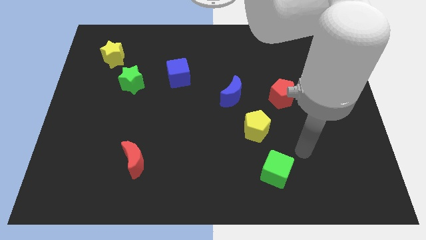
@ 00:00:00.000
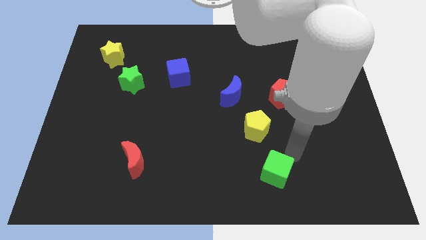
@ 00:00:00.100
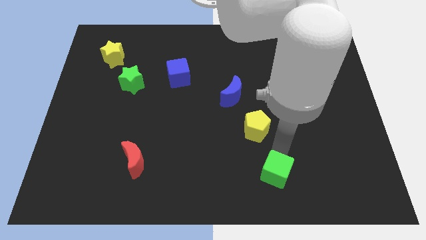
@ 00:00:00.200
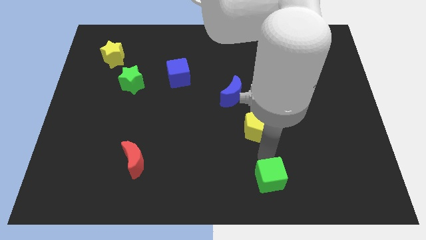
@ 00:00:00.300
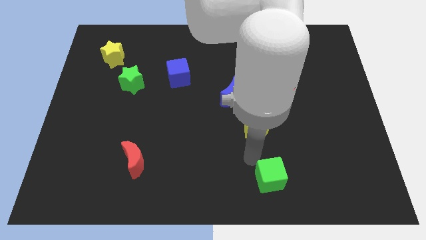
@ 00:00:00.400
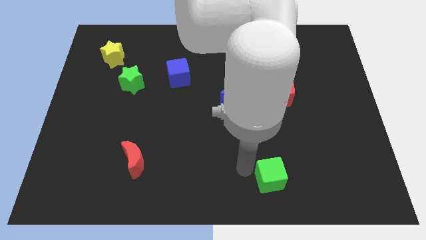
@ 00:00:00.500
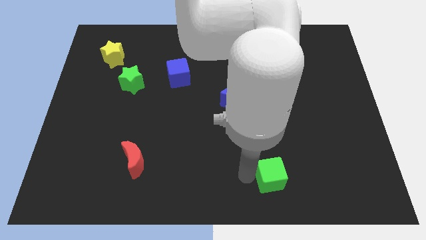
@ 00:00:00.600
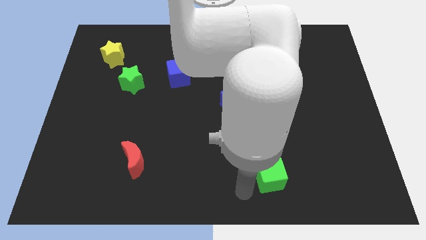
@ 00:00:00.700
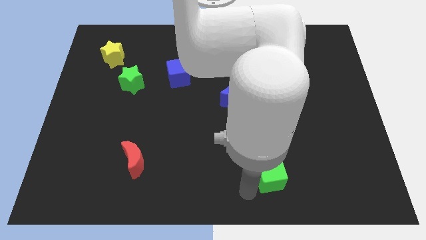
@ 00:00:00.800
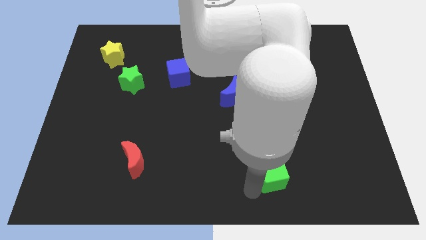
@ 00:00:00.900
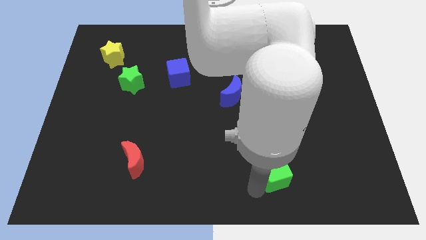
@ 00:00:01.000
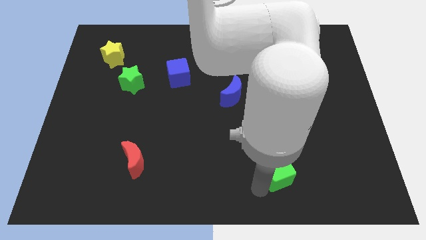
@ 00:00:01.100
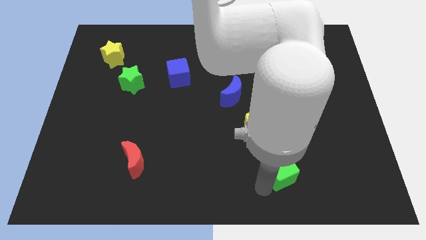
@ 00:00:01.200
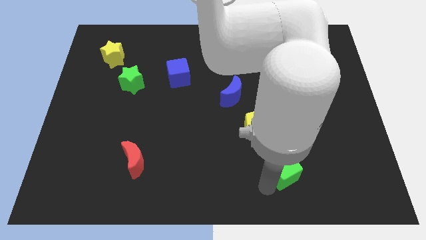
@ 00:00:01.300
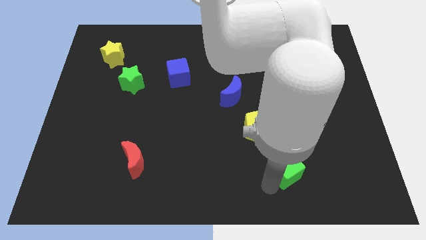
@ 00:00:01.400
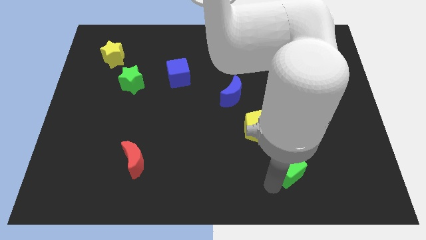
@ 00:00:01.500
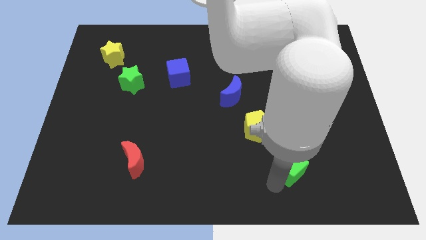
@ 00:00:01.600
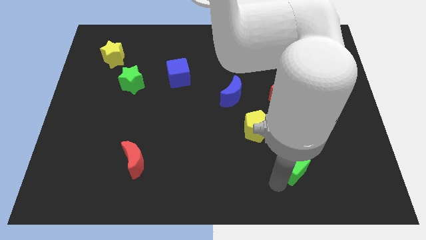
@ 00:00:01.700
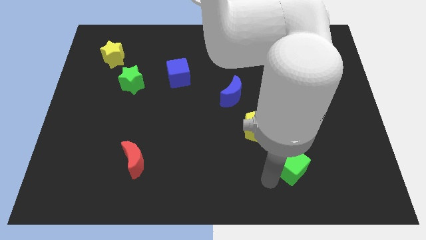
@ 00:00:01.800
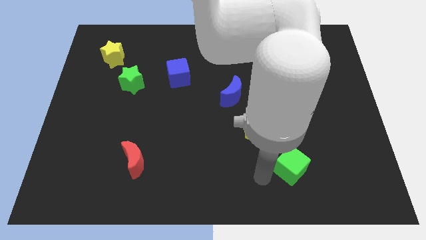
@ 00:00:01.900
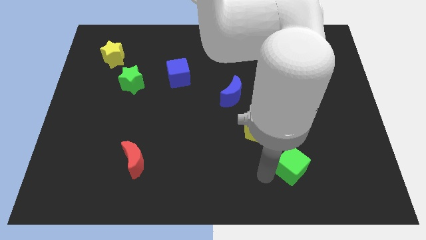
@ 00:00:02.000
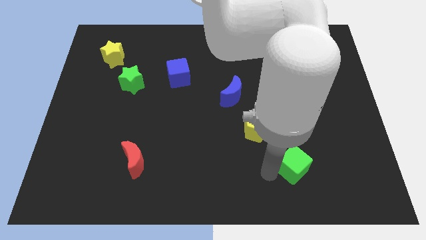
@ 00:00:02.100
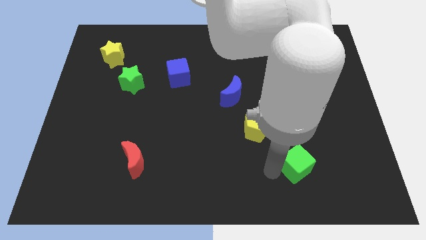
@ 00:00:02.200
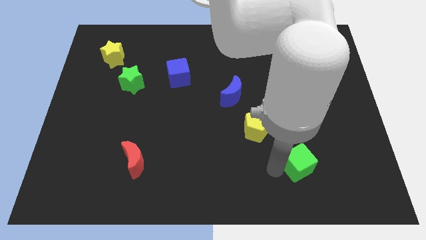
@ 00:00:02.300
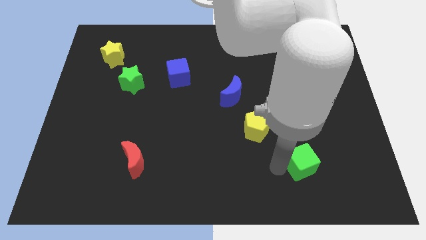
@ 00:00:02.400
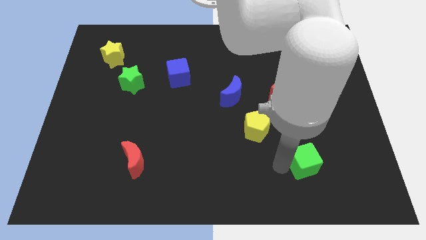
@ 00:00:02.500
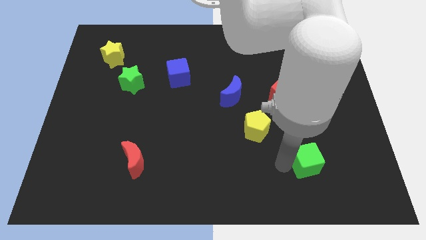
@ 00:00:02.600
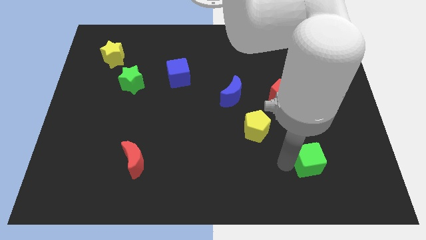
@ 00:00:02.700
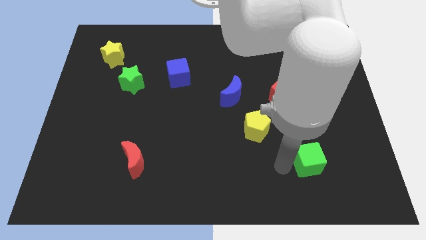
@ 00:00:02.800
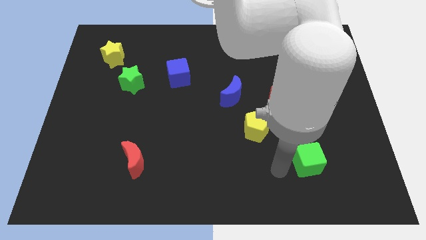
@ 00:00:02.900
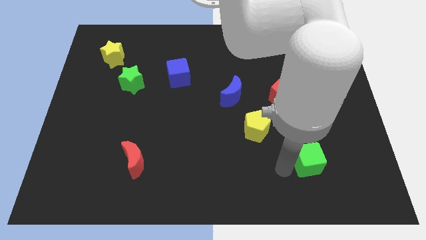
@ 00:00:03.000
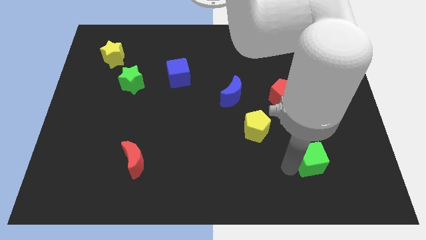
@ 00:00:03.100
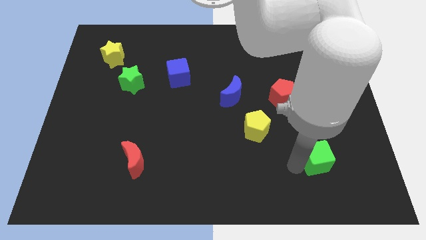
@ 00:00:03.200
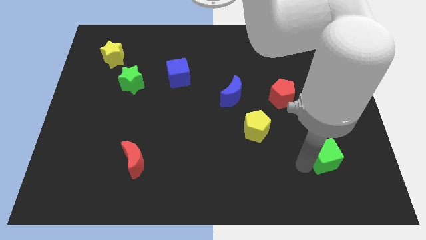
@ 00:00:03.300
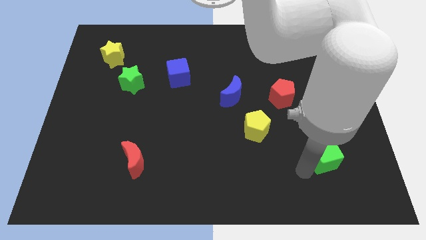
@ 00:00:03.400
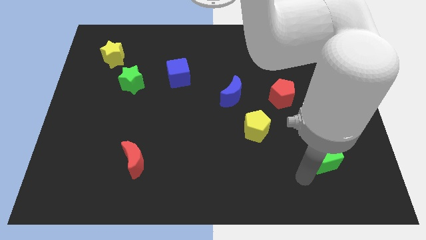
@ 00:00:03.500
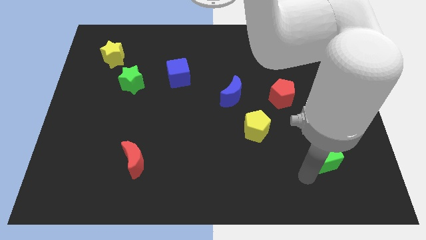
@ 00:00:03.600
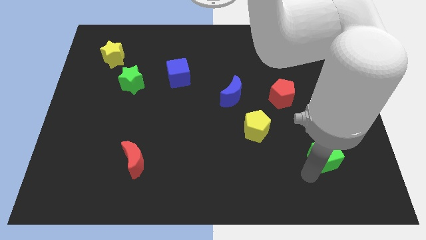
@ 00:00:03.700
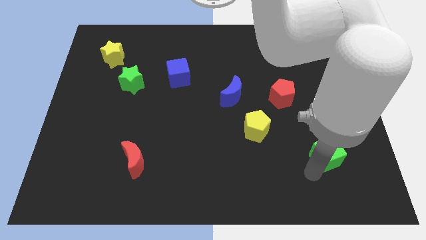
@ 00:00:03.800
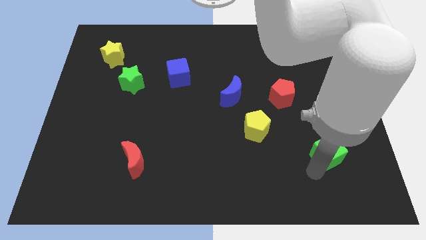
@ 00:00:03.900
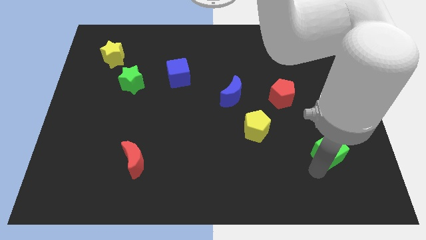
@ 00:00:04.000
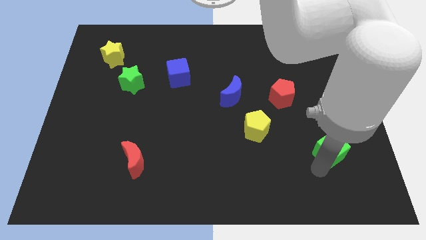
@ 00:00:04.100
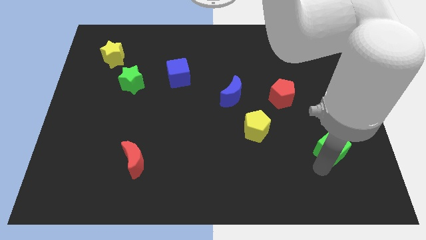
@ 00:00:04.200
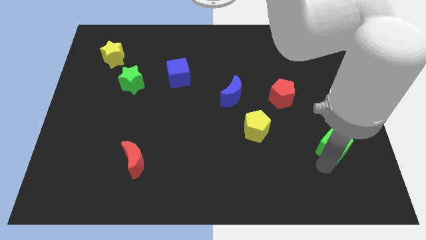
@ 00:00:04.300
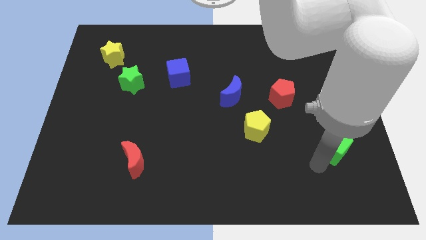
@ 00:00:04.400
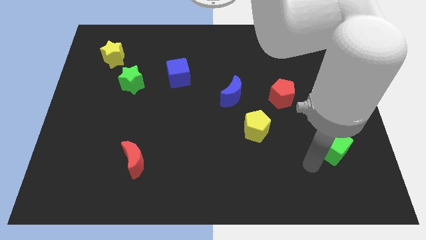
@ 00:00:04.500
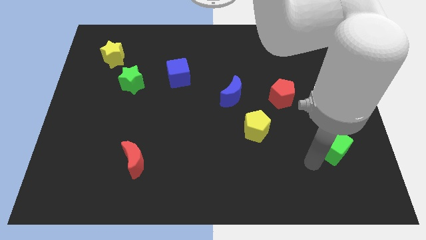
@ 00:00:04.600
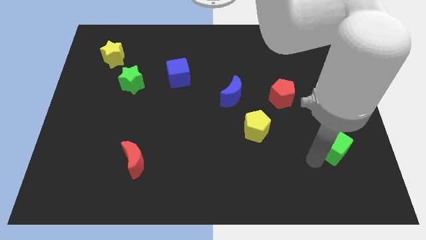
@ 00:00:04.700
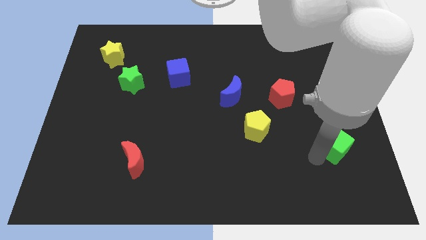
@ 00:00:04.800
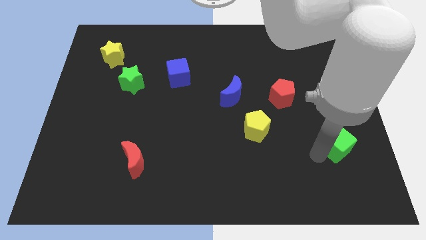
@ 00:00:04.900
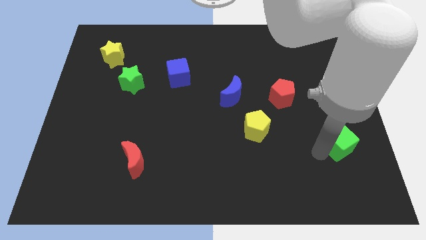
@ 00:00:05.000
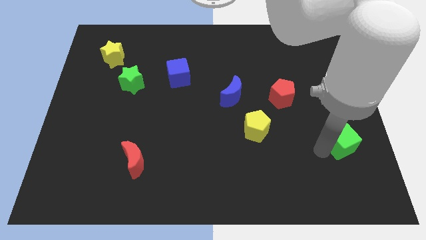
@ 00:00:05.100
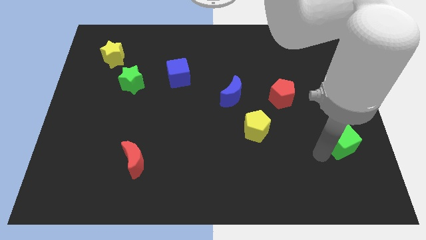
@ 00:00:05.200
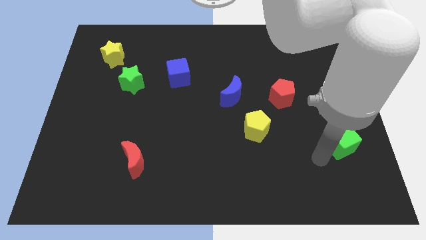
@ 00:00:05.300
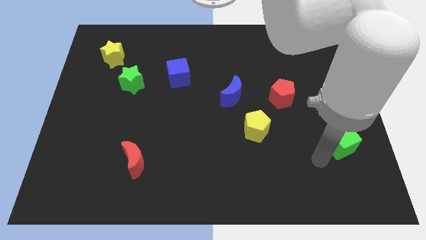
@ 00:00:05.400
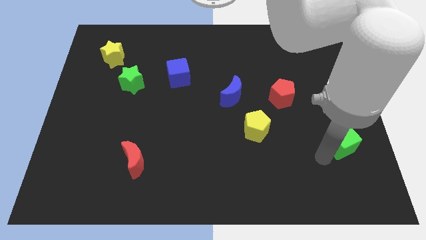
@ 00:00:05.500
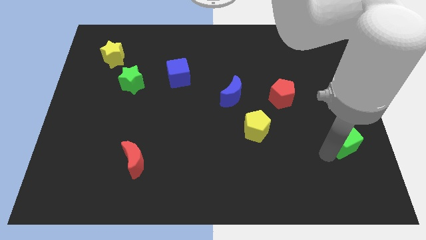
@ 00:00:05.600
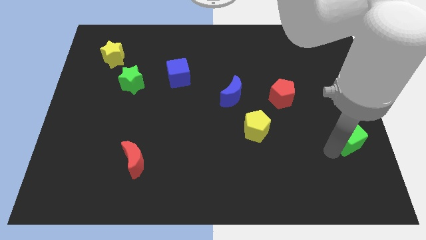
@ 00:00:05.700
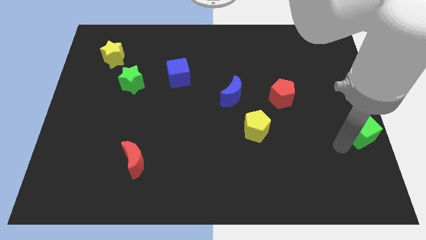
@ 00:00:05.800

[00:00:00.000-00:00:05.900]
put the green cube to the center right
